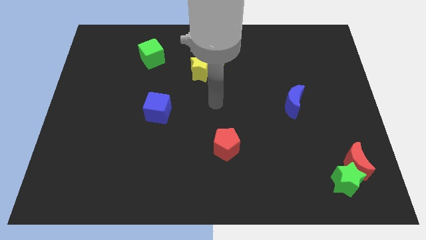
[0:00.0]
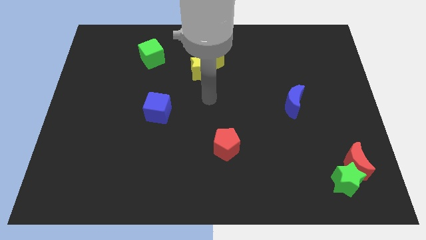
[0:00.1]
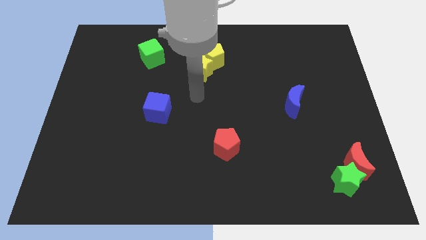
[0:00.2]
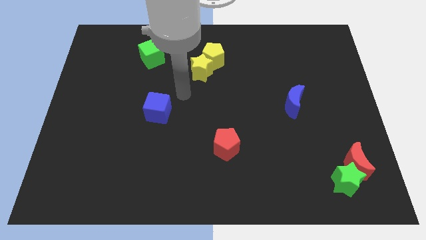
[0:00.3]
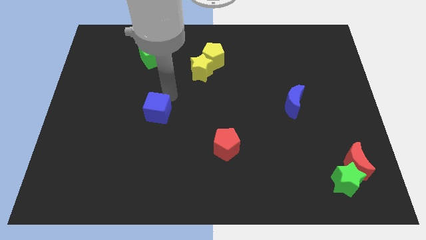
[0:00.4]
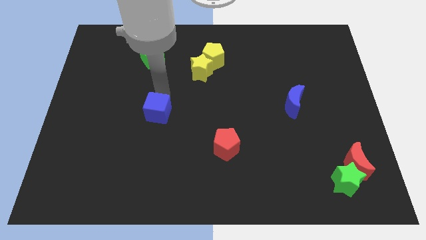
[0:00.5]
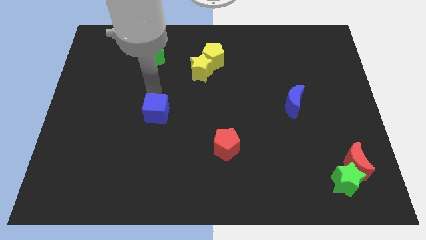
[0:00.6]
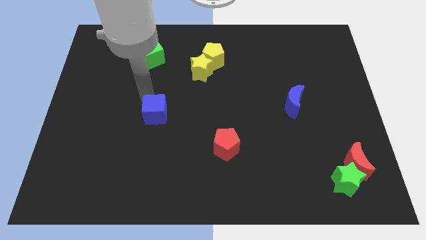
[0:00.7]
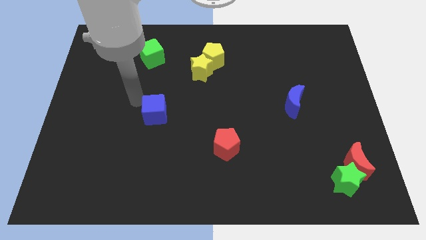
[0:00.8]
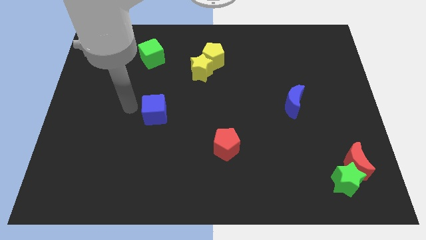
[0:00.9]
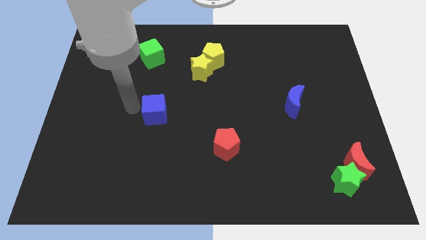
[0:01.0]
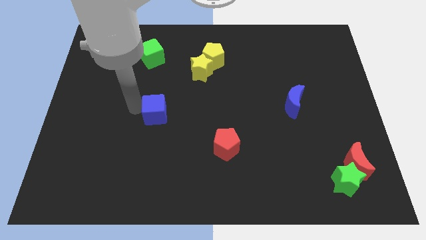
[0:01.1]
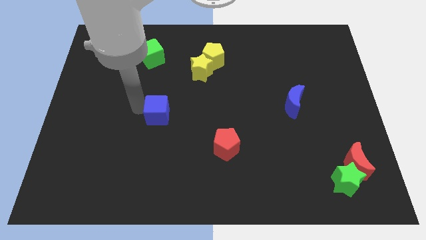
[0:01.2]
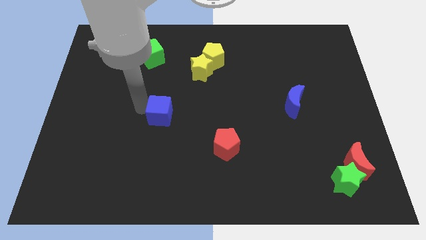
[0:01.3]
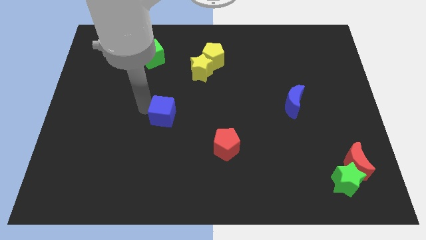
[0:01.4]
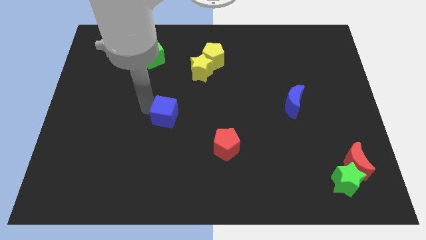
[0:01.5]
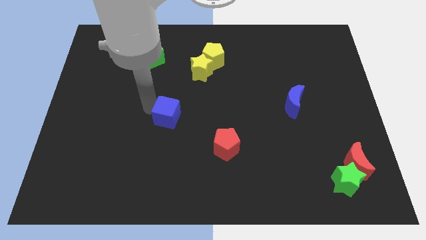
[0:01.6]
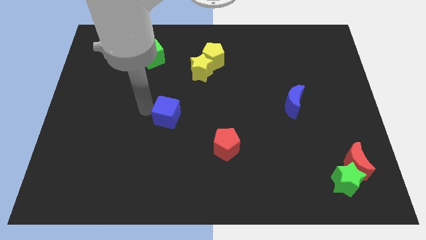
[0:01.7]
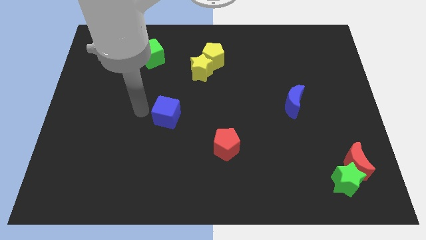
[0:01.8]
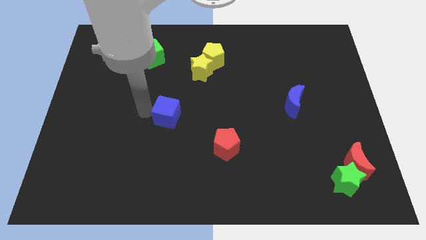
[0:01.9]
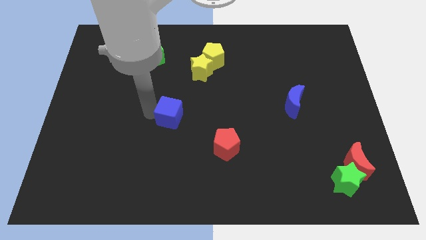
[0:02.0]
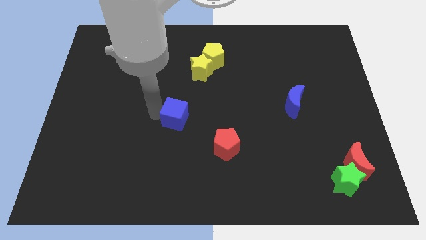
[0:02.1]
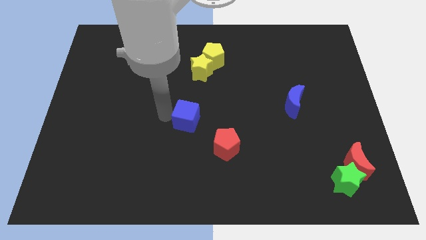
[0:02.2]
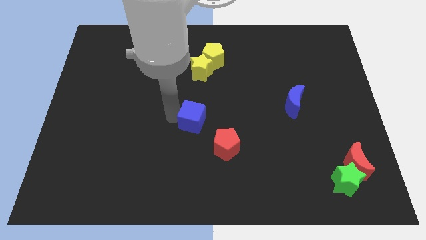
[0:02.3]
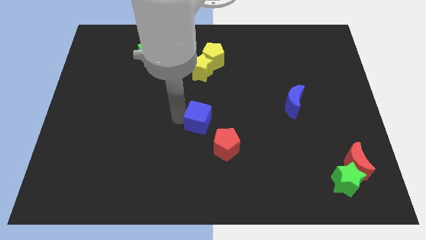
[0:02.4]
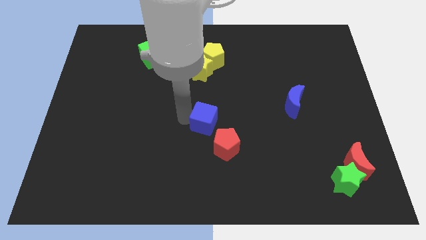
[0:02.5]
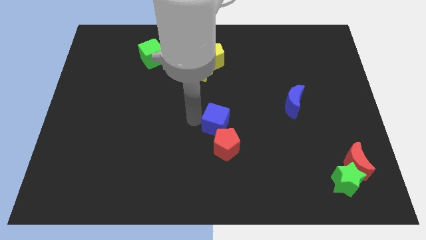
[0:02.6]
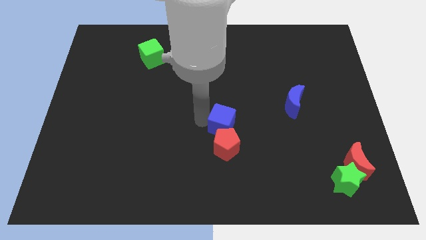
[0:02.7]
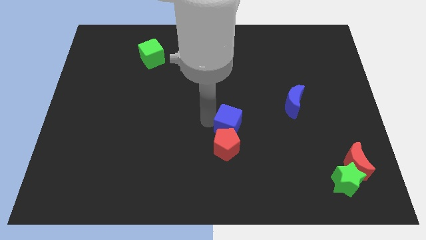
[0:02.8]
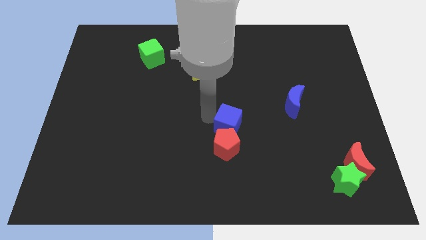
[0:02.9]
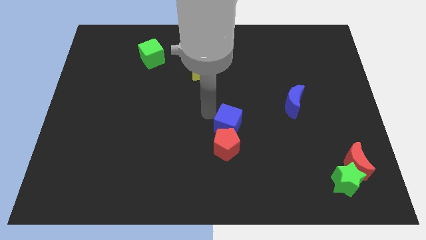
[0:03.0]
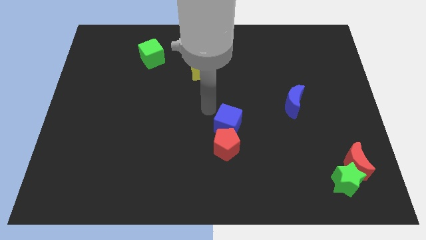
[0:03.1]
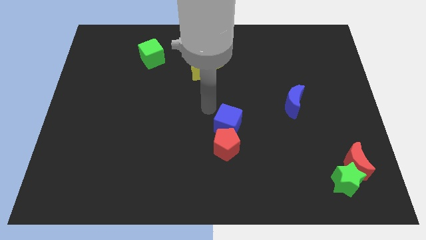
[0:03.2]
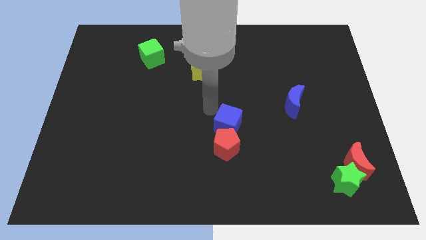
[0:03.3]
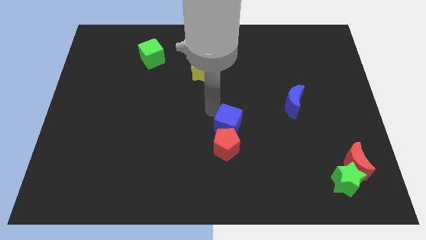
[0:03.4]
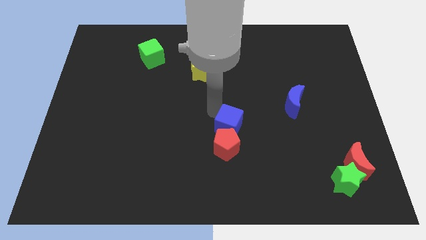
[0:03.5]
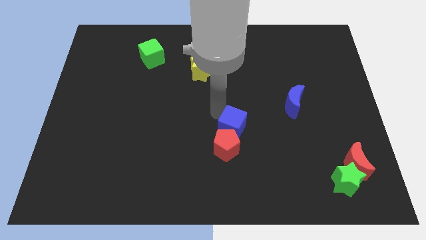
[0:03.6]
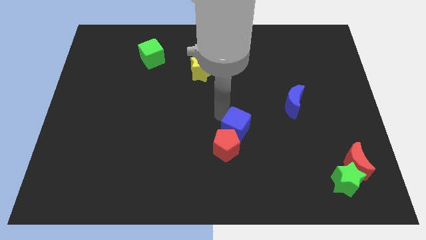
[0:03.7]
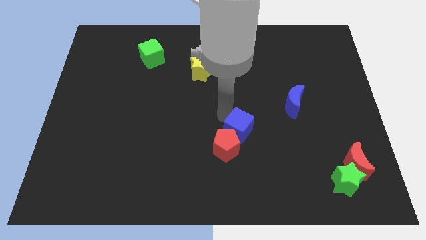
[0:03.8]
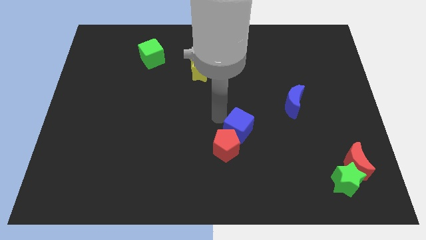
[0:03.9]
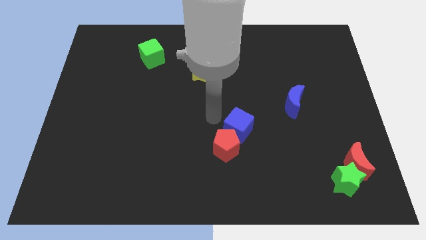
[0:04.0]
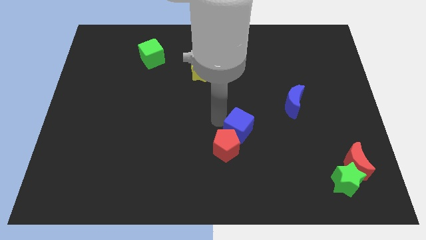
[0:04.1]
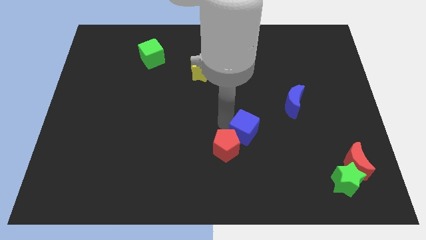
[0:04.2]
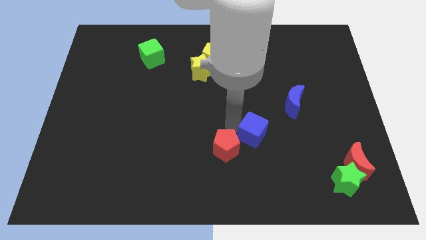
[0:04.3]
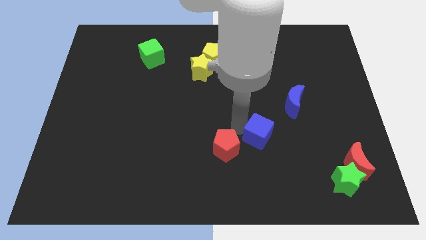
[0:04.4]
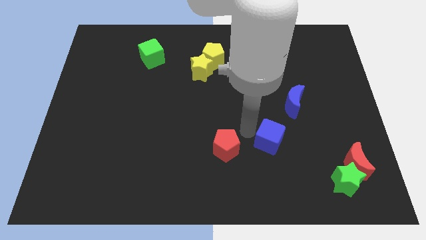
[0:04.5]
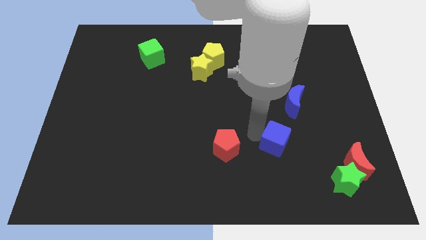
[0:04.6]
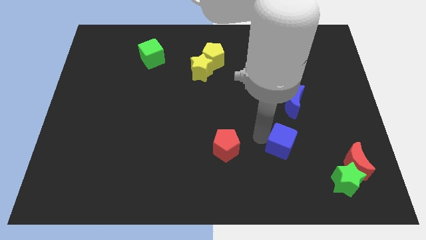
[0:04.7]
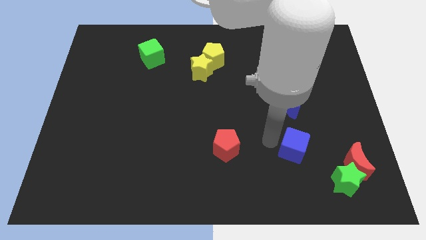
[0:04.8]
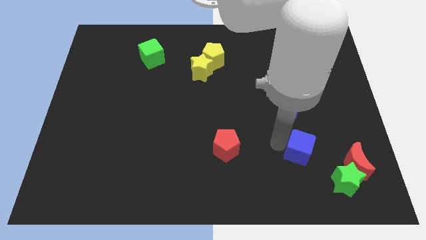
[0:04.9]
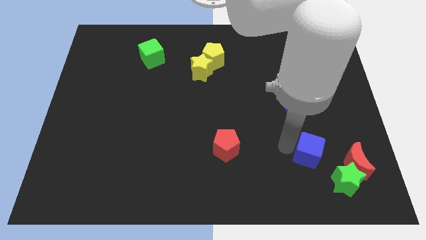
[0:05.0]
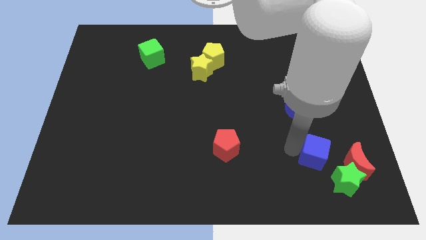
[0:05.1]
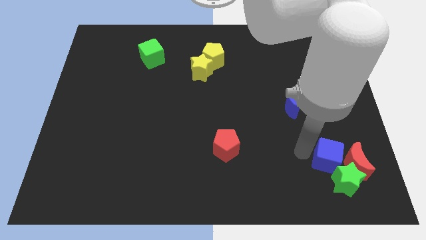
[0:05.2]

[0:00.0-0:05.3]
put the blue cube towards the red moon

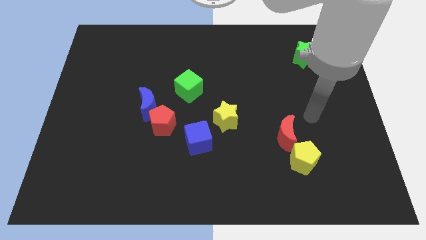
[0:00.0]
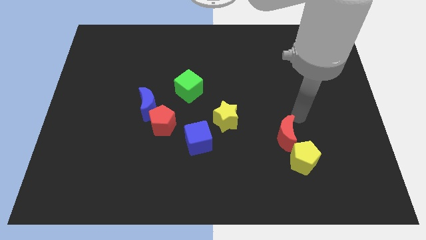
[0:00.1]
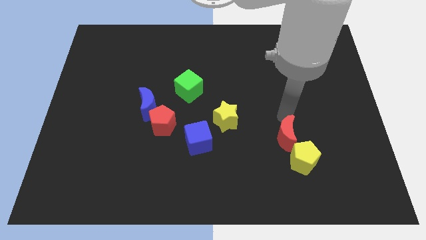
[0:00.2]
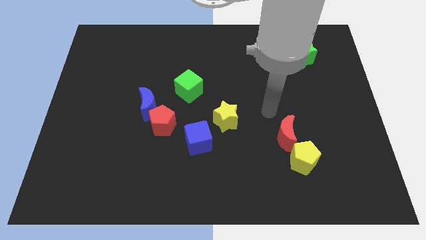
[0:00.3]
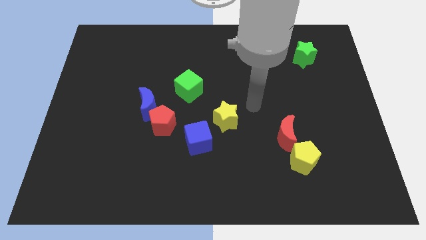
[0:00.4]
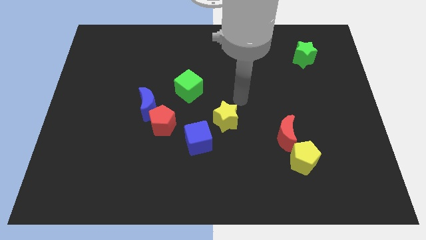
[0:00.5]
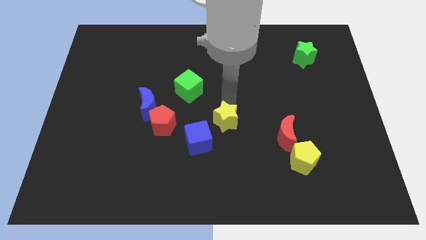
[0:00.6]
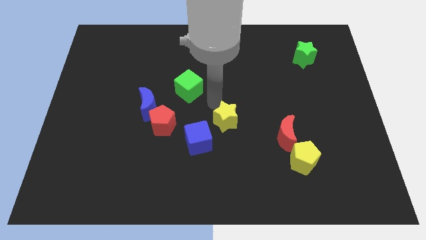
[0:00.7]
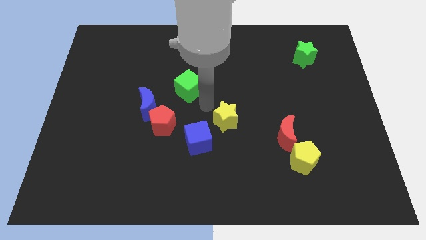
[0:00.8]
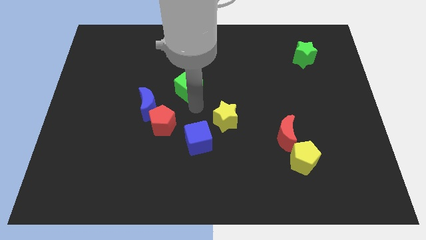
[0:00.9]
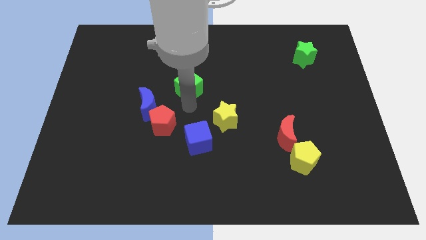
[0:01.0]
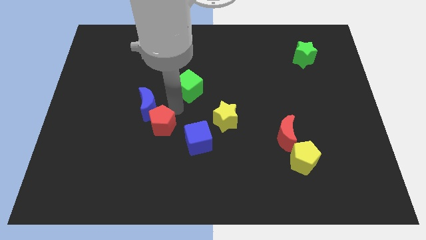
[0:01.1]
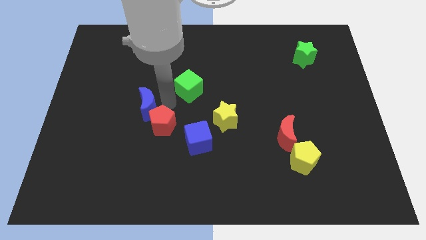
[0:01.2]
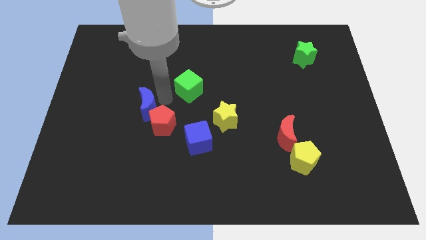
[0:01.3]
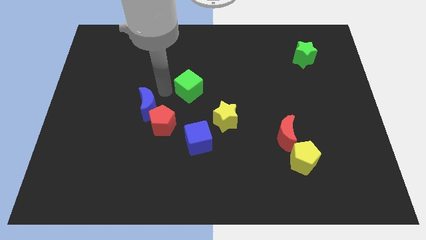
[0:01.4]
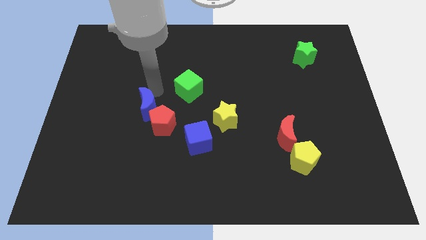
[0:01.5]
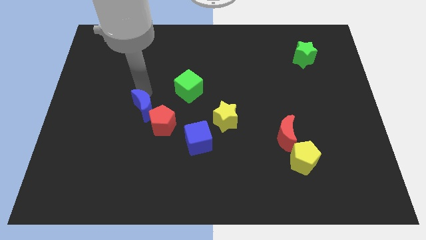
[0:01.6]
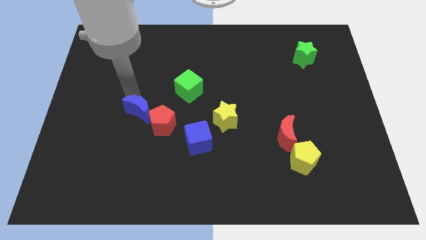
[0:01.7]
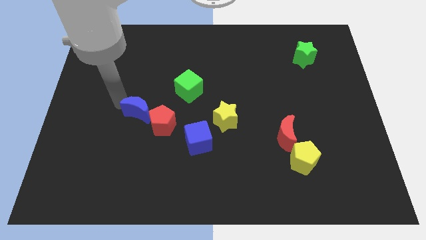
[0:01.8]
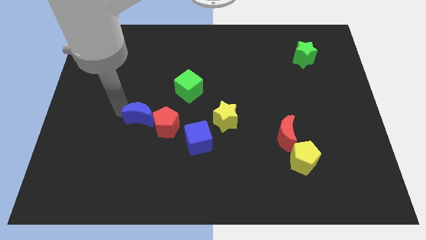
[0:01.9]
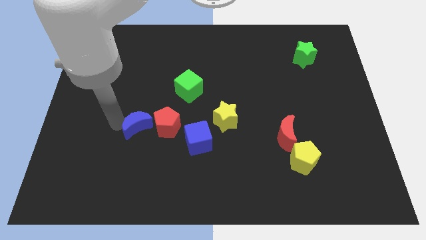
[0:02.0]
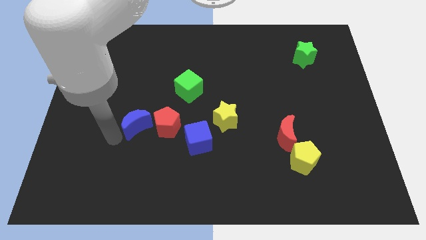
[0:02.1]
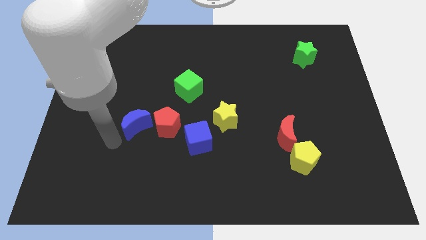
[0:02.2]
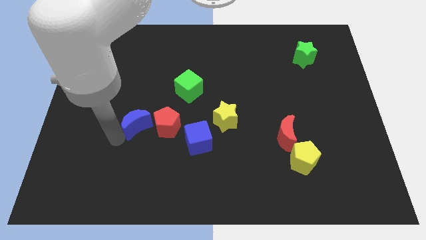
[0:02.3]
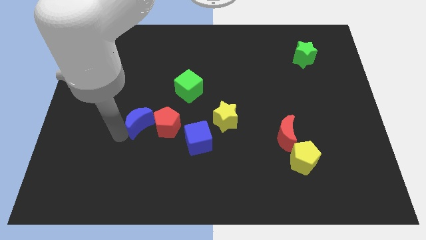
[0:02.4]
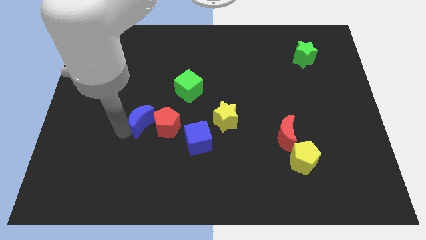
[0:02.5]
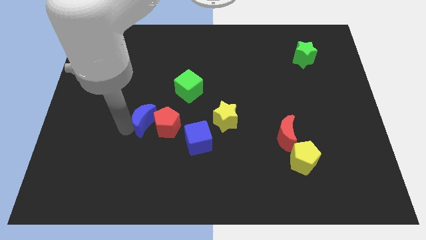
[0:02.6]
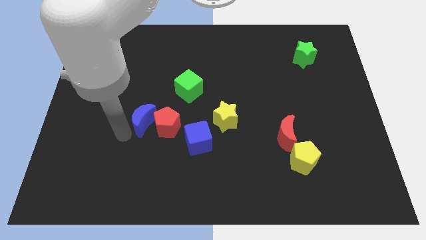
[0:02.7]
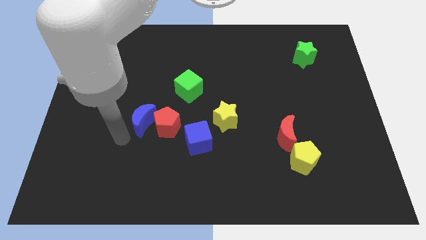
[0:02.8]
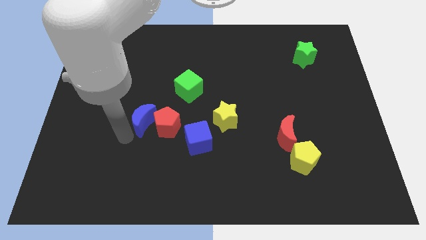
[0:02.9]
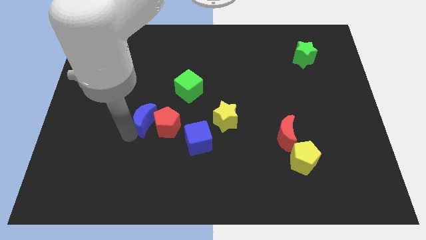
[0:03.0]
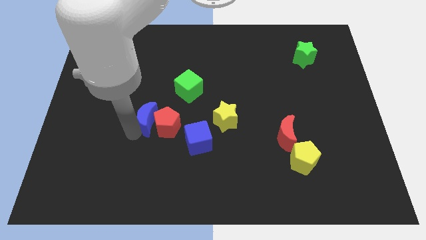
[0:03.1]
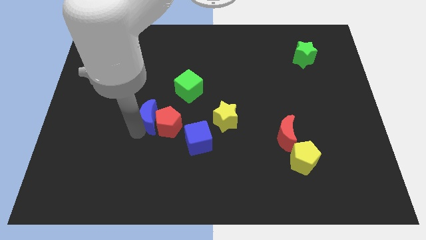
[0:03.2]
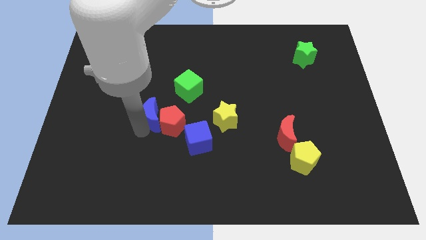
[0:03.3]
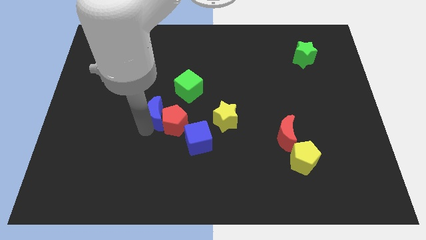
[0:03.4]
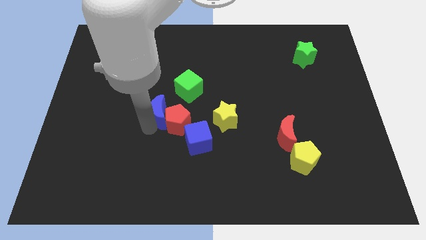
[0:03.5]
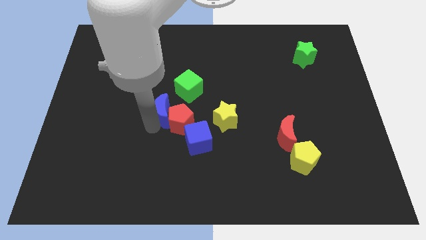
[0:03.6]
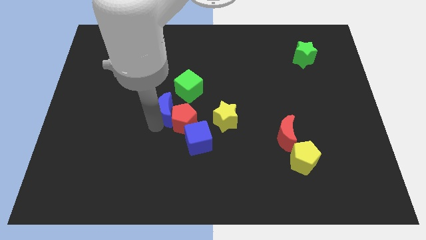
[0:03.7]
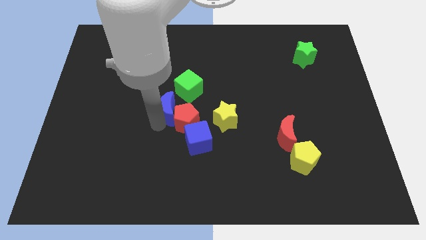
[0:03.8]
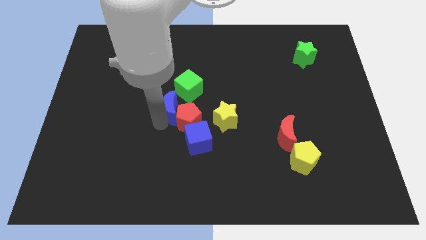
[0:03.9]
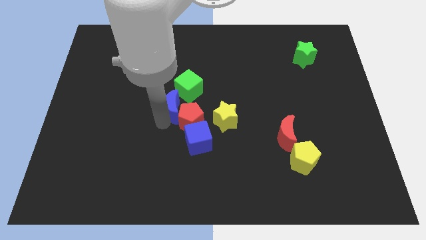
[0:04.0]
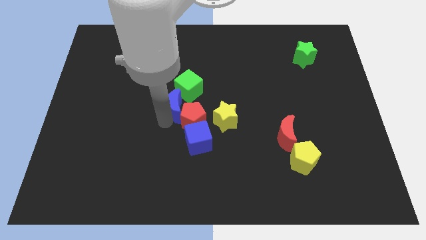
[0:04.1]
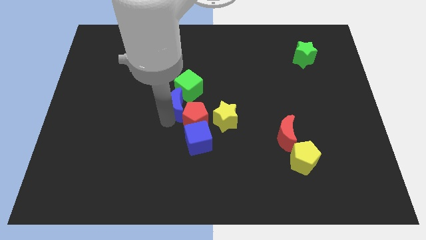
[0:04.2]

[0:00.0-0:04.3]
put the blue moon next to the green cube
